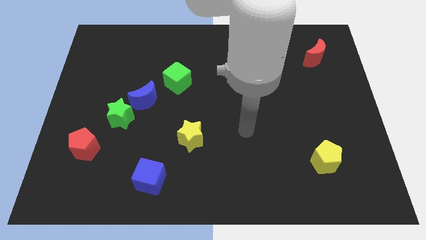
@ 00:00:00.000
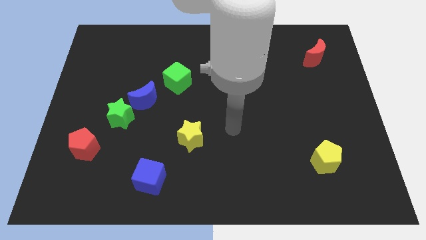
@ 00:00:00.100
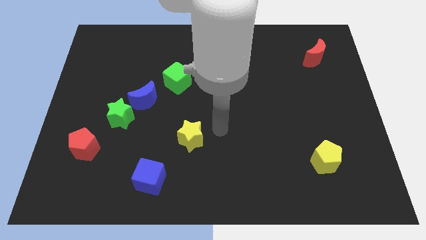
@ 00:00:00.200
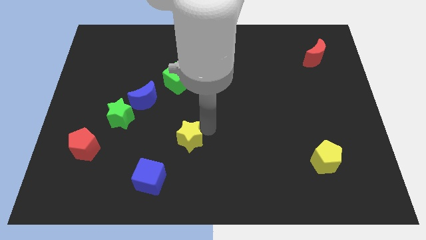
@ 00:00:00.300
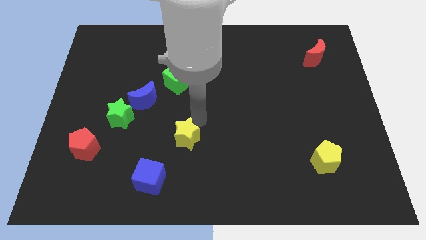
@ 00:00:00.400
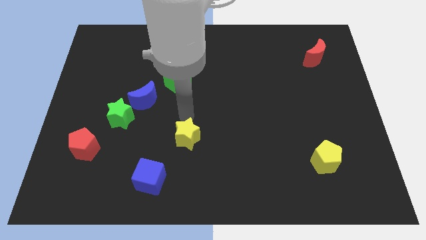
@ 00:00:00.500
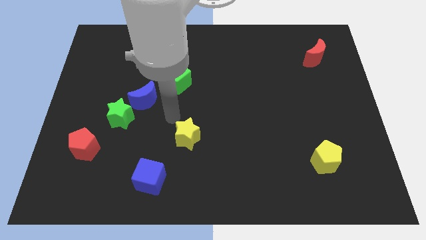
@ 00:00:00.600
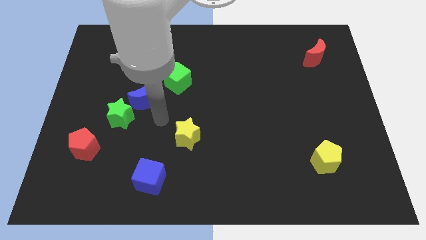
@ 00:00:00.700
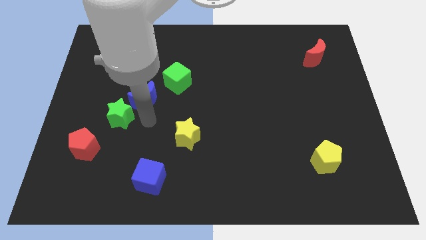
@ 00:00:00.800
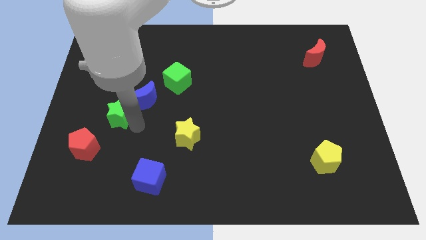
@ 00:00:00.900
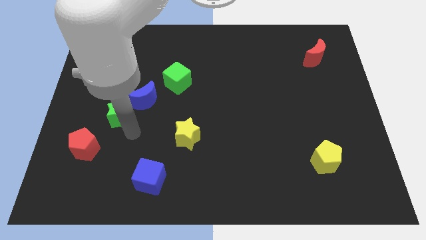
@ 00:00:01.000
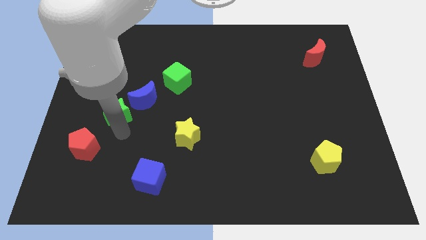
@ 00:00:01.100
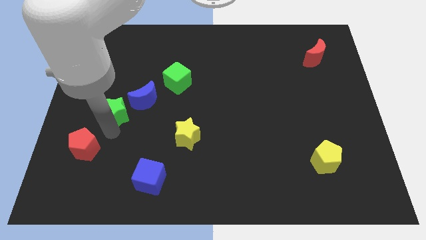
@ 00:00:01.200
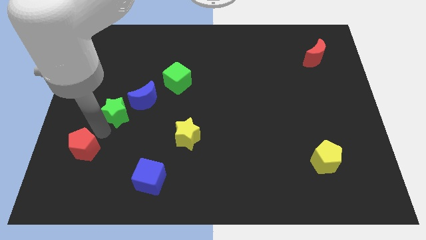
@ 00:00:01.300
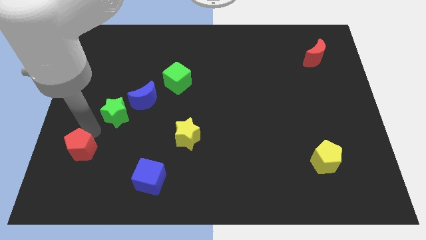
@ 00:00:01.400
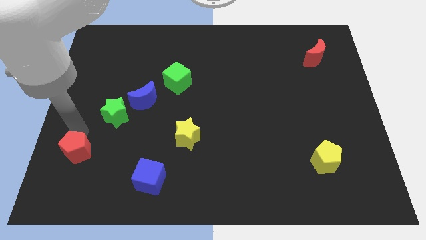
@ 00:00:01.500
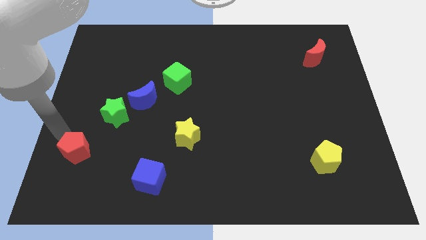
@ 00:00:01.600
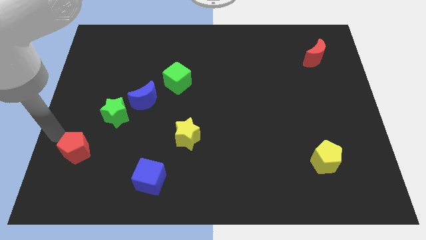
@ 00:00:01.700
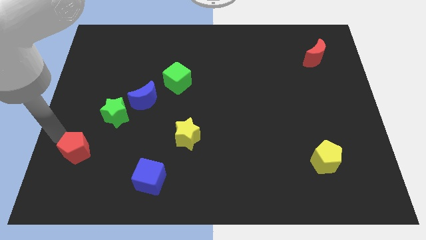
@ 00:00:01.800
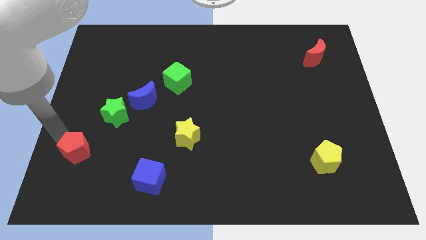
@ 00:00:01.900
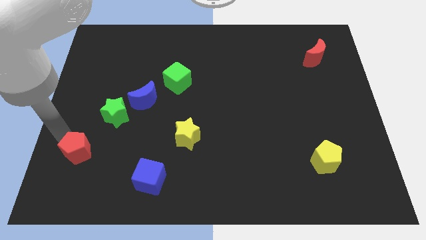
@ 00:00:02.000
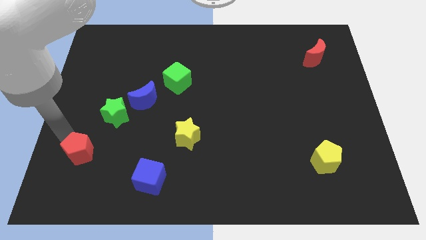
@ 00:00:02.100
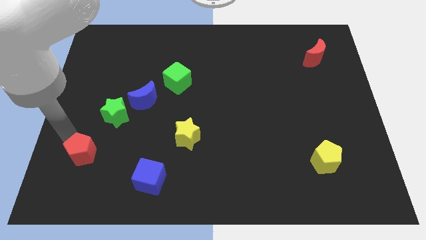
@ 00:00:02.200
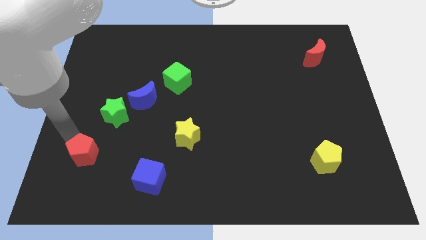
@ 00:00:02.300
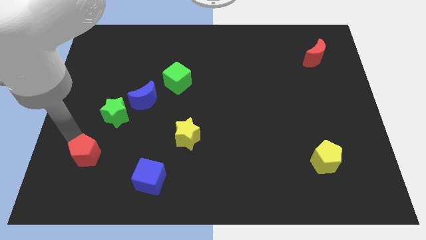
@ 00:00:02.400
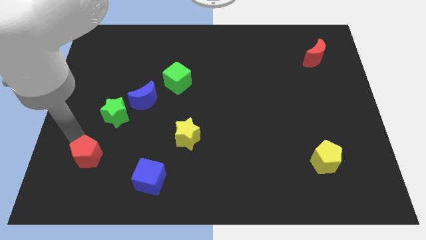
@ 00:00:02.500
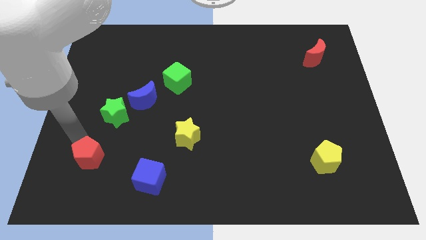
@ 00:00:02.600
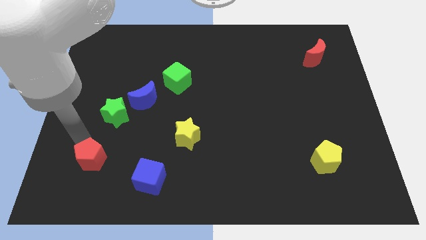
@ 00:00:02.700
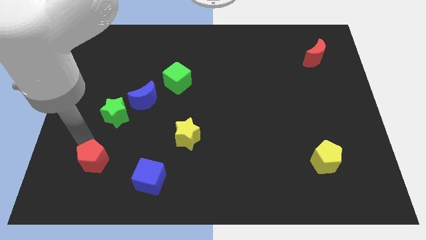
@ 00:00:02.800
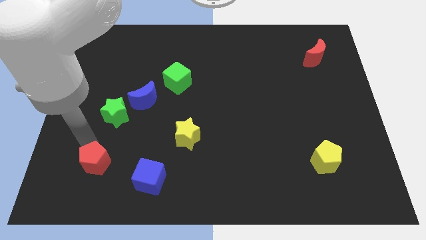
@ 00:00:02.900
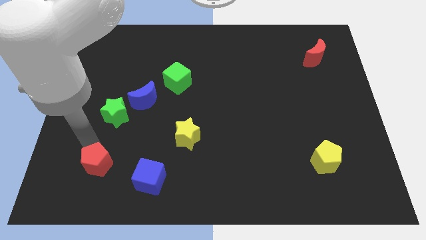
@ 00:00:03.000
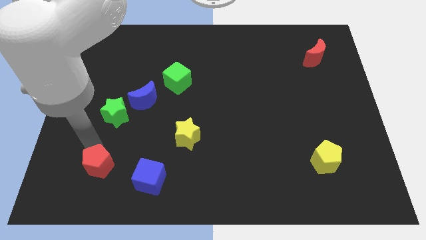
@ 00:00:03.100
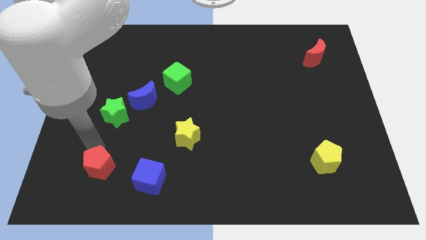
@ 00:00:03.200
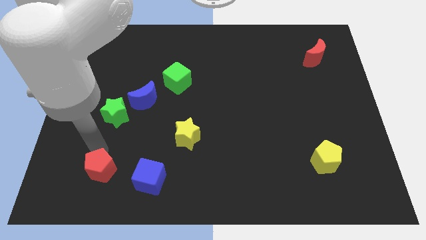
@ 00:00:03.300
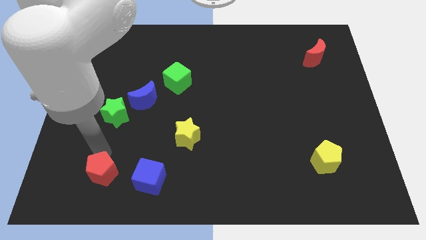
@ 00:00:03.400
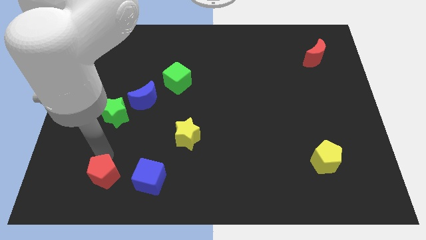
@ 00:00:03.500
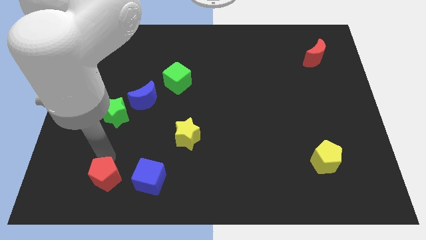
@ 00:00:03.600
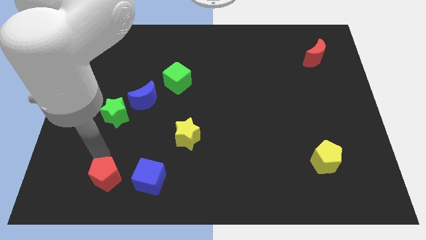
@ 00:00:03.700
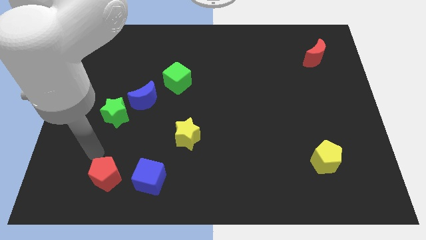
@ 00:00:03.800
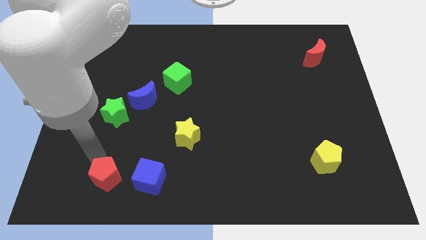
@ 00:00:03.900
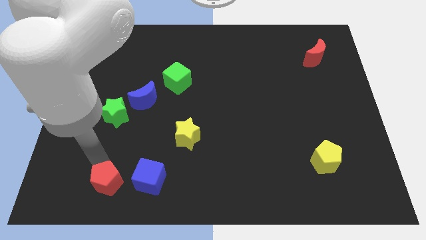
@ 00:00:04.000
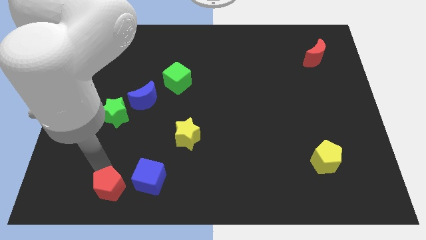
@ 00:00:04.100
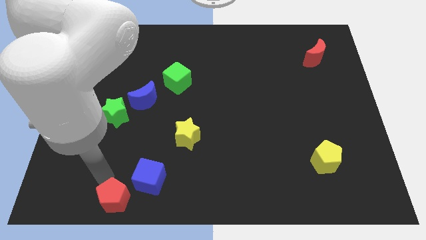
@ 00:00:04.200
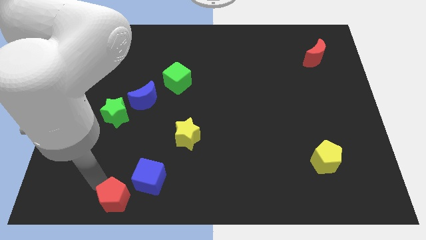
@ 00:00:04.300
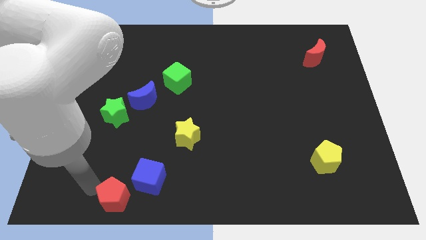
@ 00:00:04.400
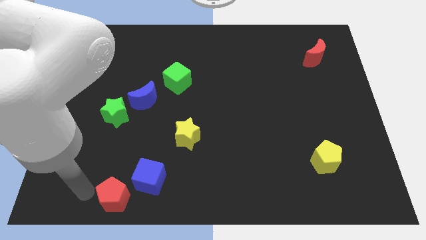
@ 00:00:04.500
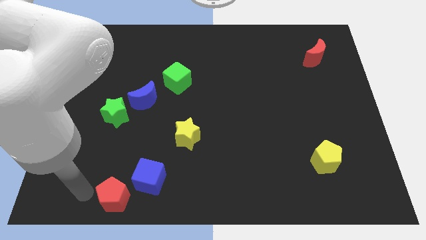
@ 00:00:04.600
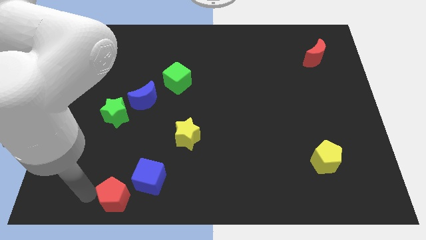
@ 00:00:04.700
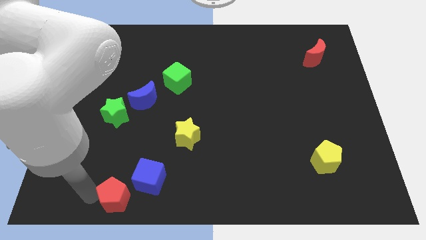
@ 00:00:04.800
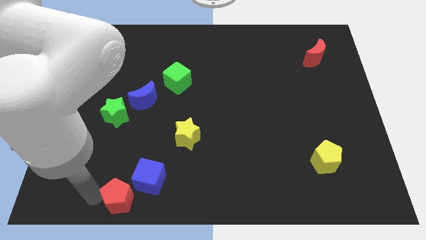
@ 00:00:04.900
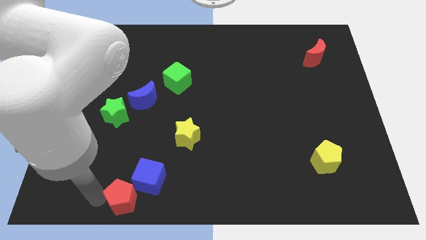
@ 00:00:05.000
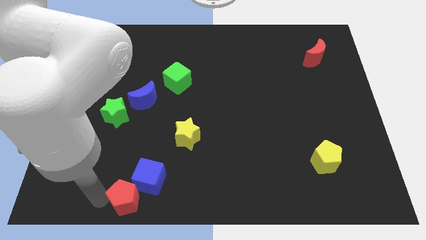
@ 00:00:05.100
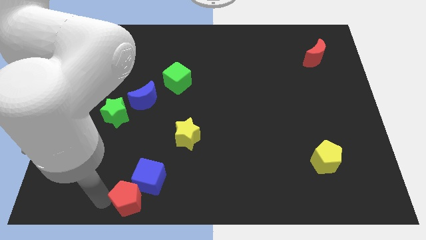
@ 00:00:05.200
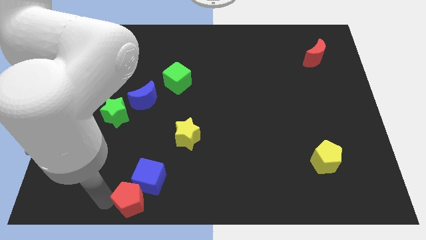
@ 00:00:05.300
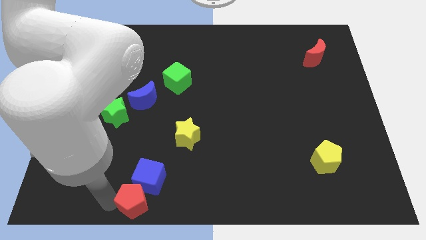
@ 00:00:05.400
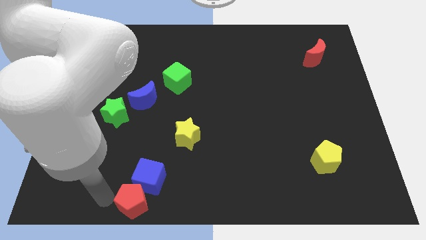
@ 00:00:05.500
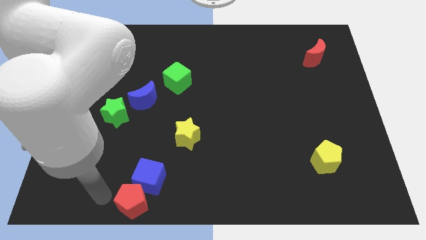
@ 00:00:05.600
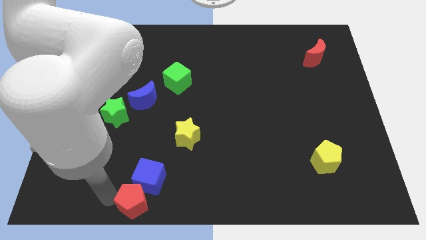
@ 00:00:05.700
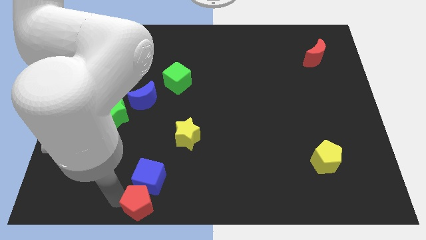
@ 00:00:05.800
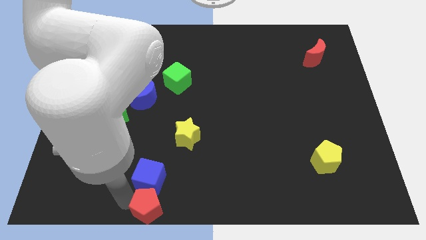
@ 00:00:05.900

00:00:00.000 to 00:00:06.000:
slide the red pentagon to the bottom
